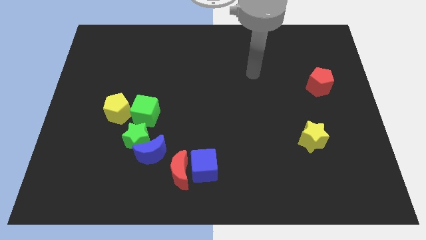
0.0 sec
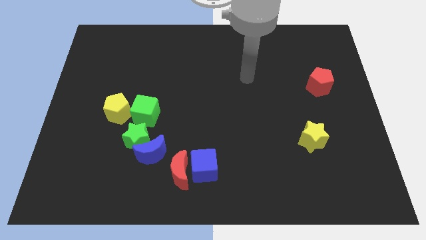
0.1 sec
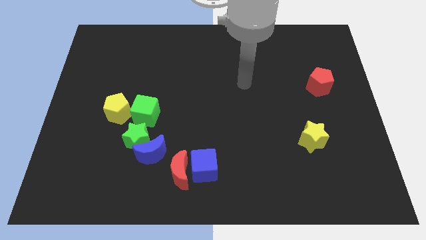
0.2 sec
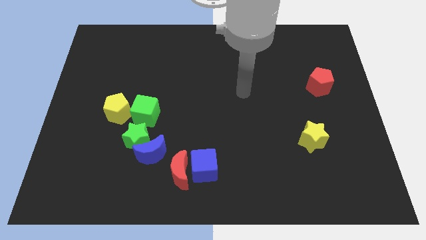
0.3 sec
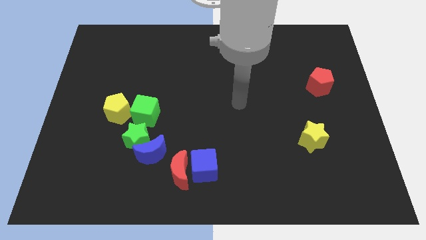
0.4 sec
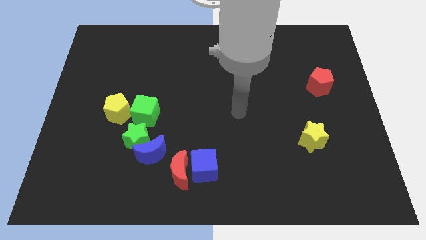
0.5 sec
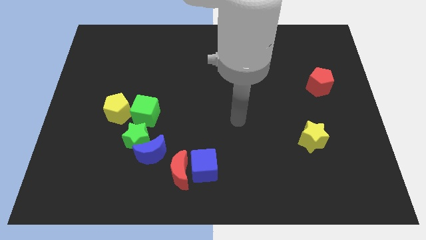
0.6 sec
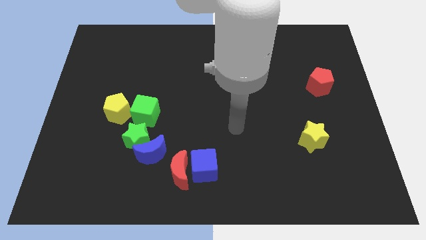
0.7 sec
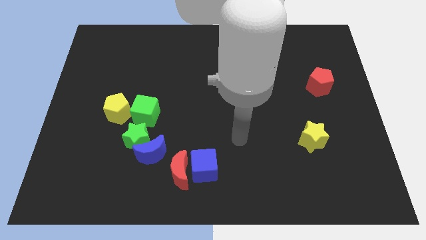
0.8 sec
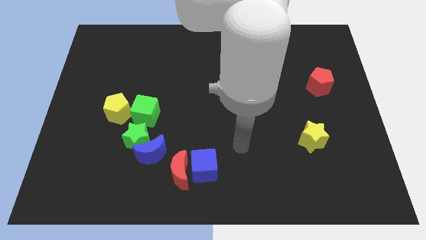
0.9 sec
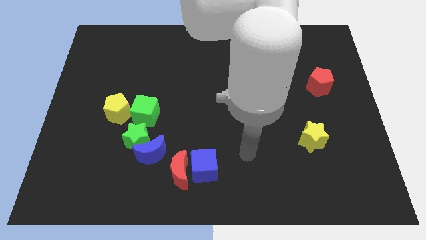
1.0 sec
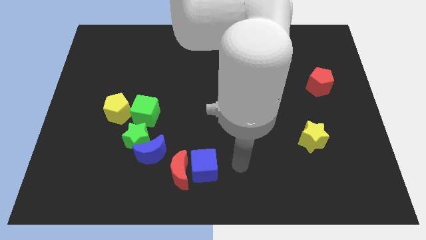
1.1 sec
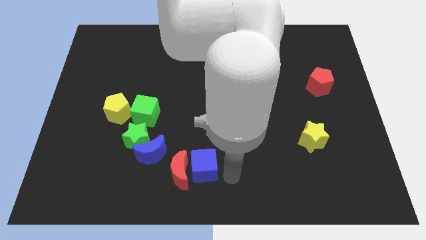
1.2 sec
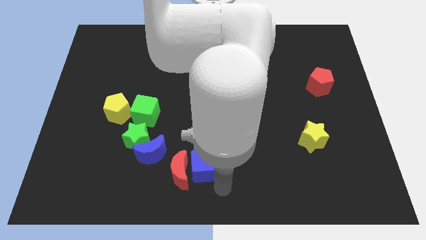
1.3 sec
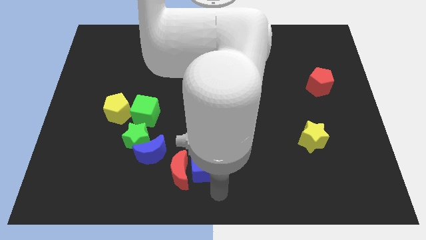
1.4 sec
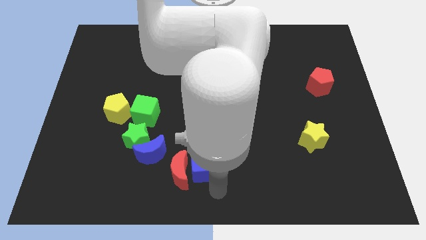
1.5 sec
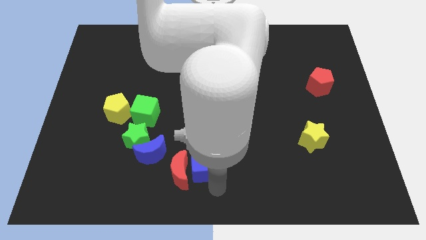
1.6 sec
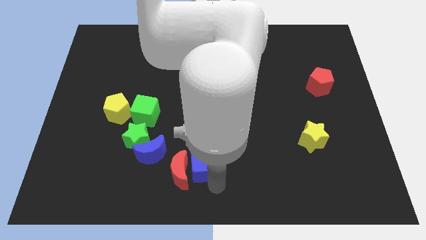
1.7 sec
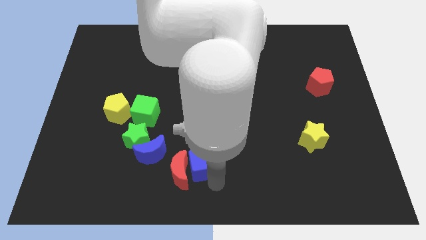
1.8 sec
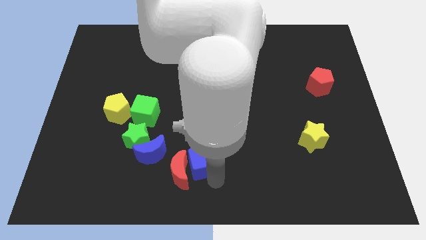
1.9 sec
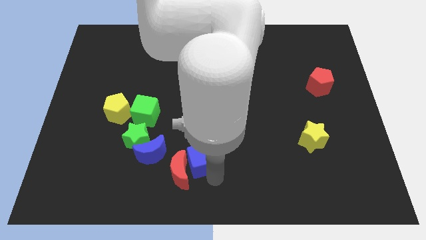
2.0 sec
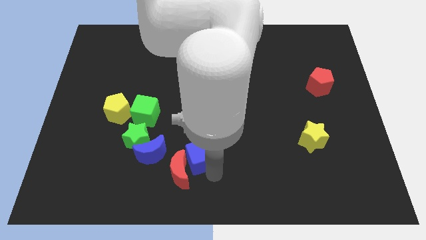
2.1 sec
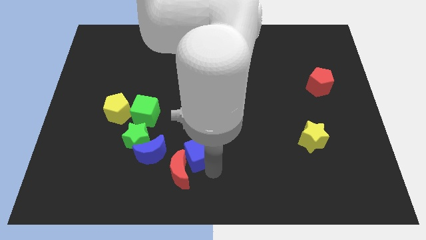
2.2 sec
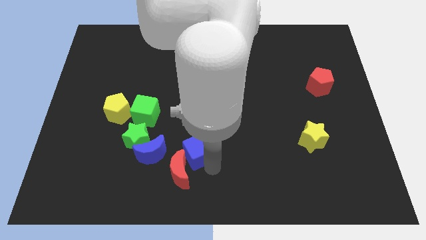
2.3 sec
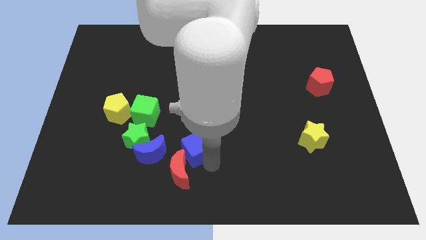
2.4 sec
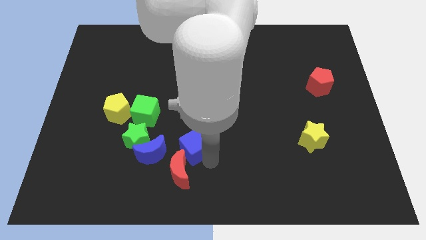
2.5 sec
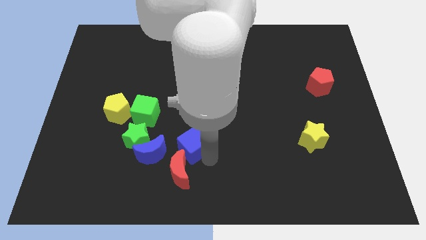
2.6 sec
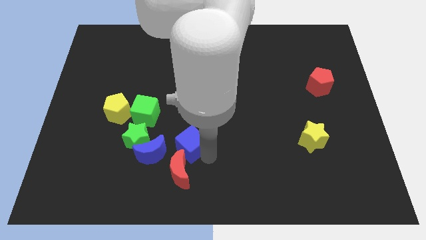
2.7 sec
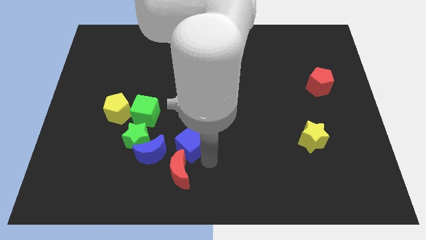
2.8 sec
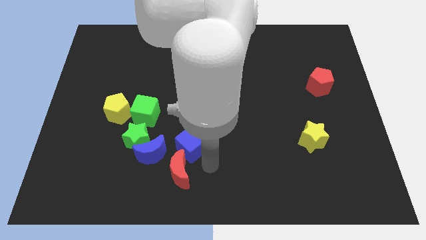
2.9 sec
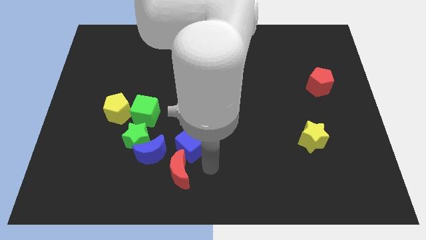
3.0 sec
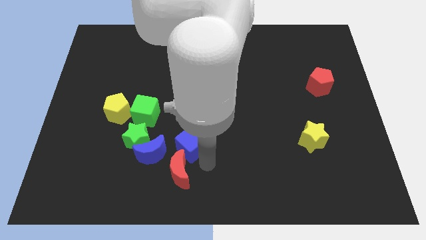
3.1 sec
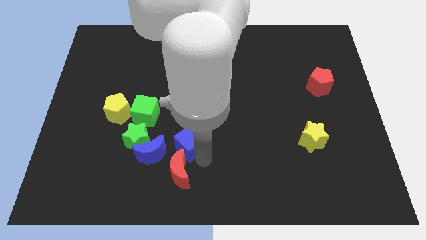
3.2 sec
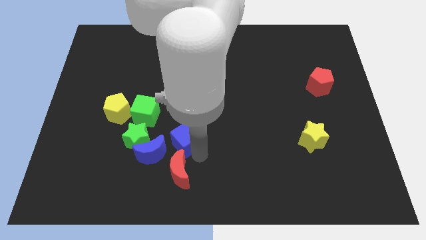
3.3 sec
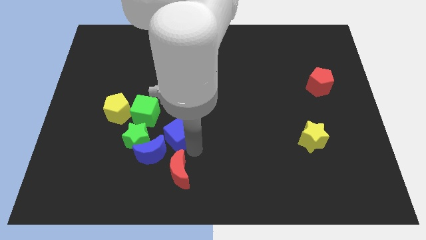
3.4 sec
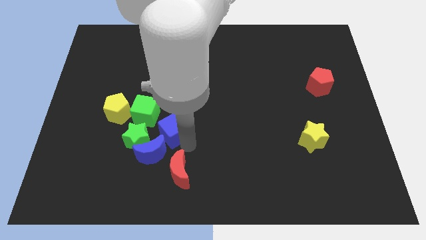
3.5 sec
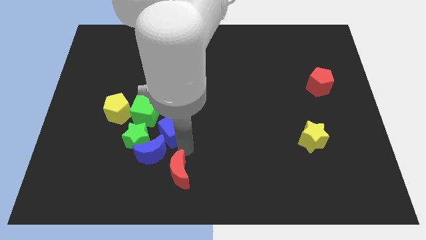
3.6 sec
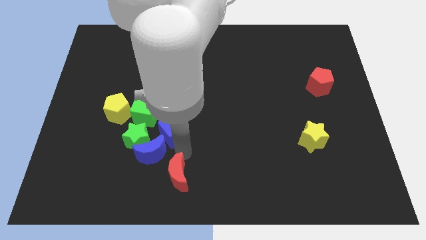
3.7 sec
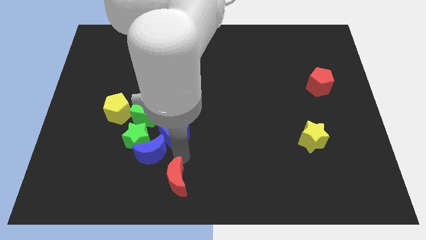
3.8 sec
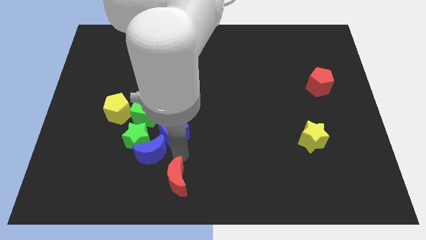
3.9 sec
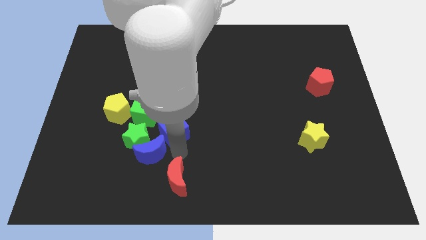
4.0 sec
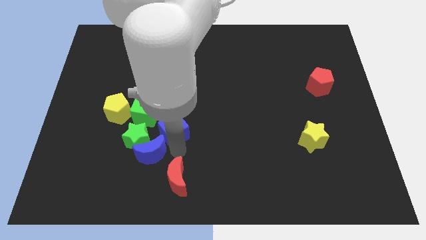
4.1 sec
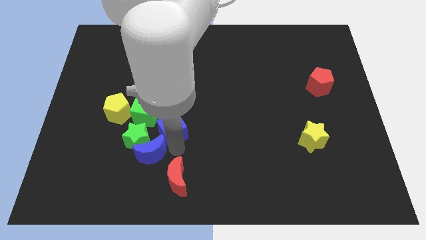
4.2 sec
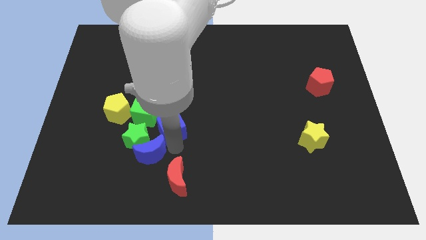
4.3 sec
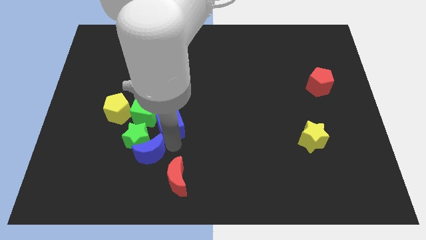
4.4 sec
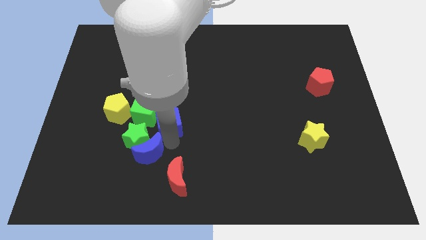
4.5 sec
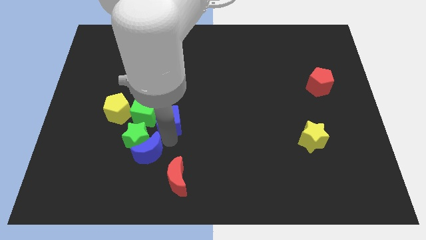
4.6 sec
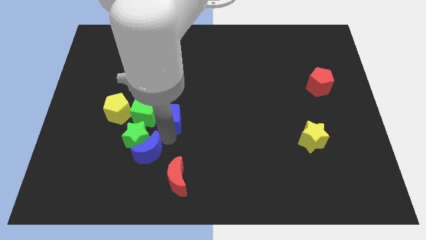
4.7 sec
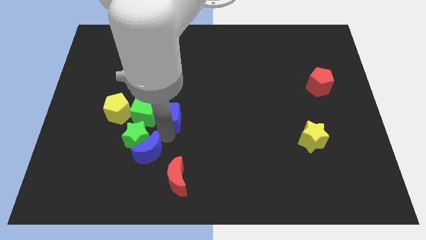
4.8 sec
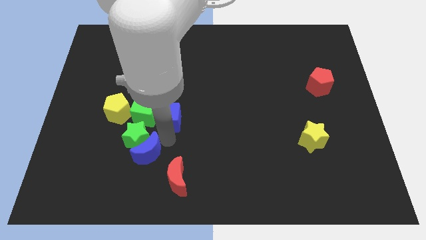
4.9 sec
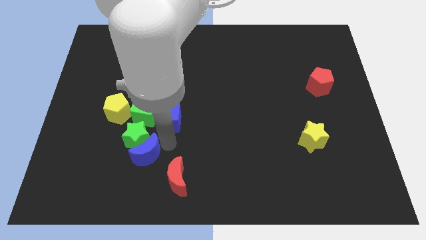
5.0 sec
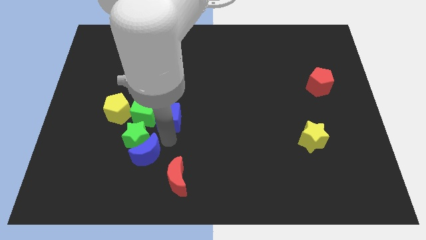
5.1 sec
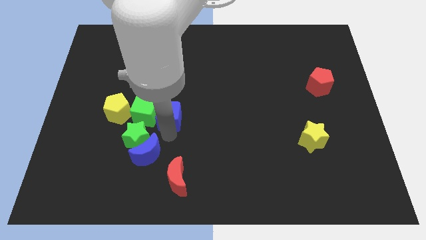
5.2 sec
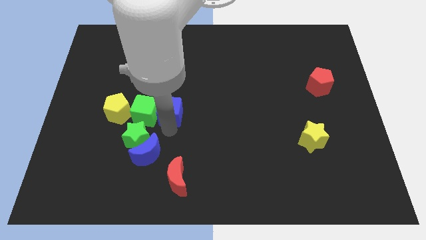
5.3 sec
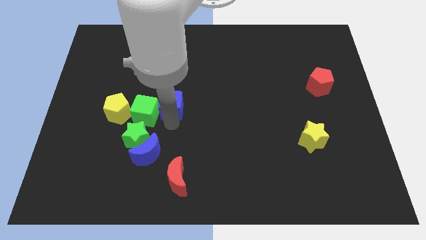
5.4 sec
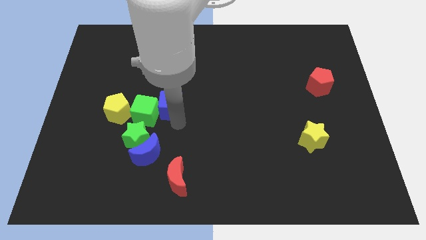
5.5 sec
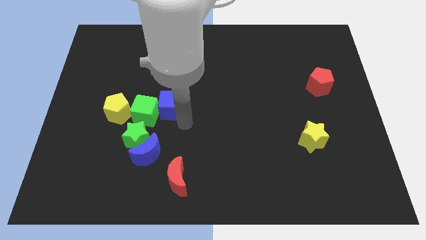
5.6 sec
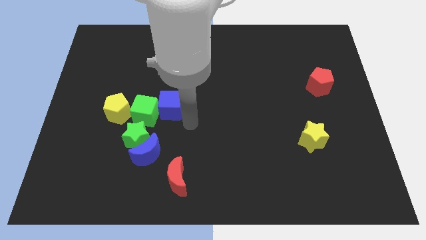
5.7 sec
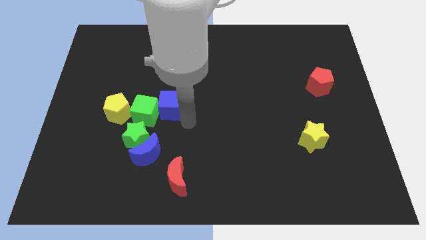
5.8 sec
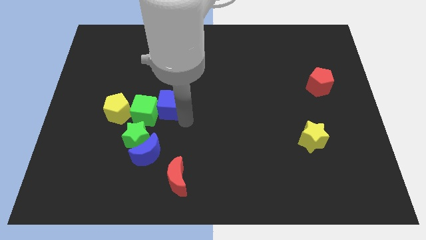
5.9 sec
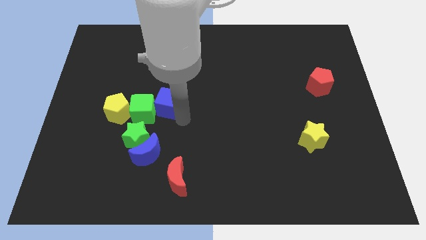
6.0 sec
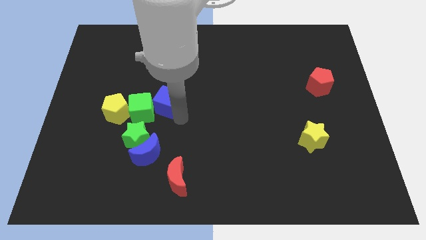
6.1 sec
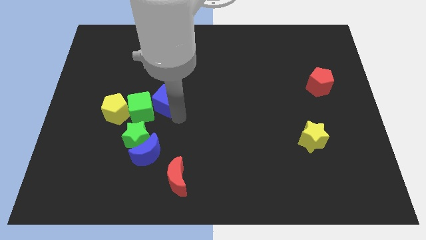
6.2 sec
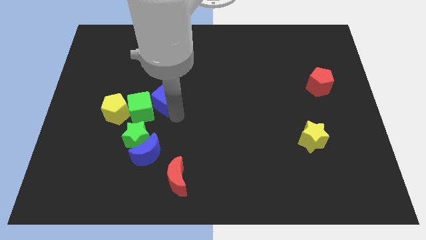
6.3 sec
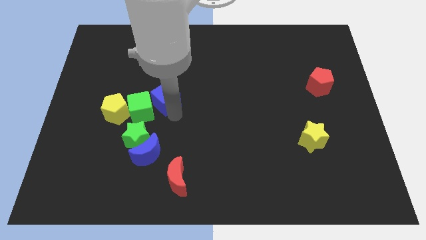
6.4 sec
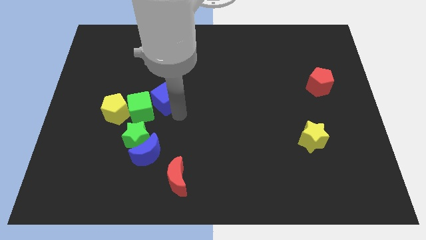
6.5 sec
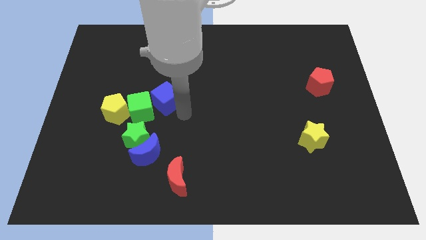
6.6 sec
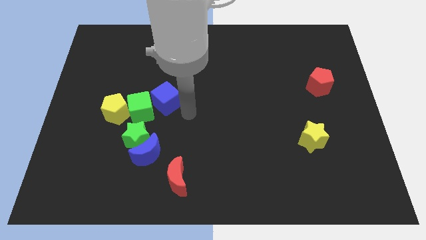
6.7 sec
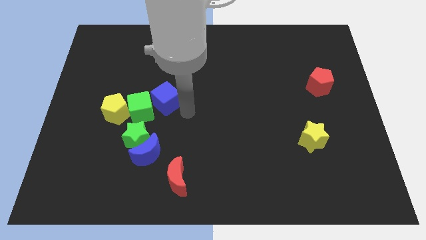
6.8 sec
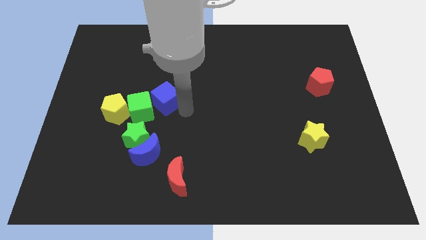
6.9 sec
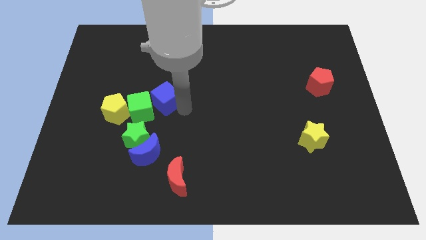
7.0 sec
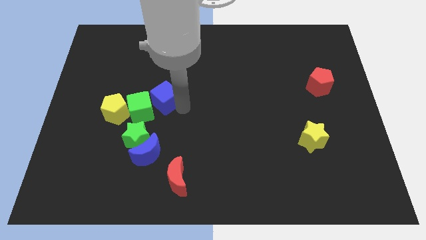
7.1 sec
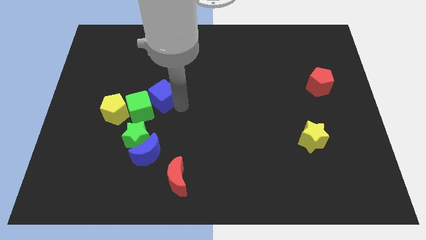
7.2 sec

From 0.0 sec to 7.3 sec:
put the blue cube above the green star
